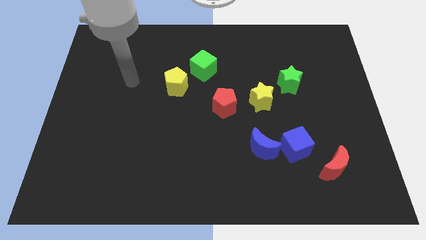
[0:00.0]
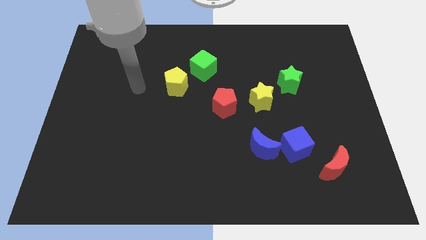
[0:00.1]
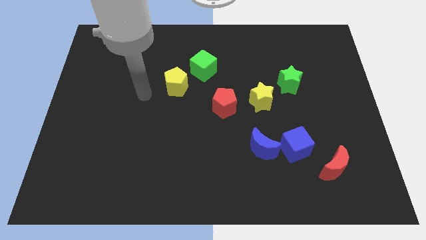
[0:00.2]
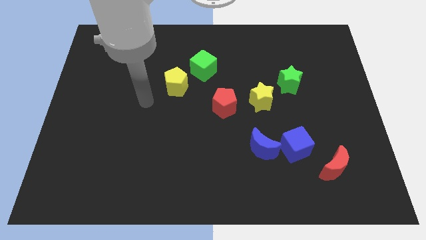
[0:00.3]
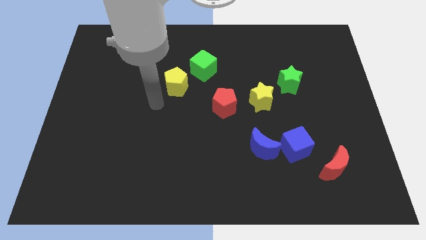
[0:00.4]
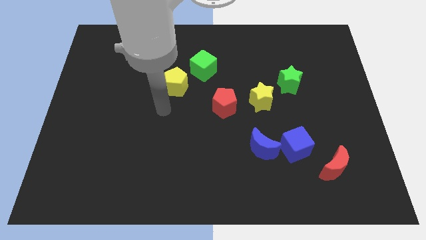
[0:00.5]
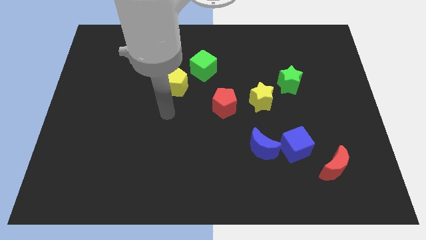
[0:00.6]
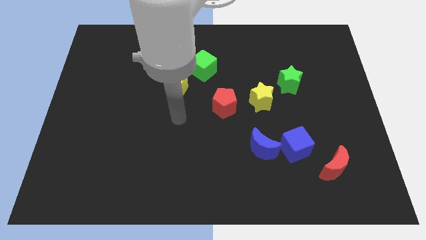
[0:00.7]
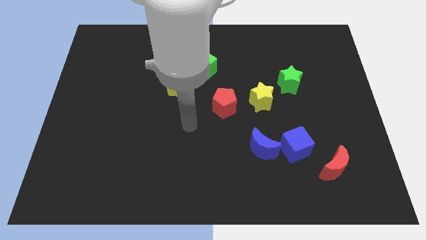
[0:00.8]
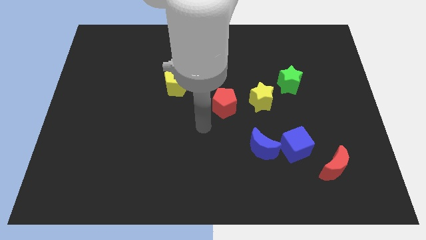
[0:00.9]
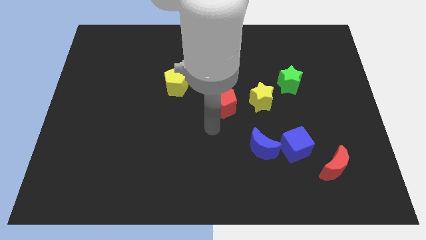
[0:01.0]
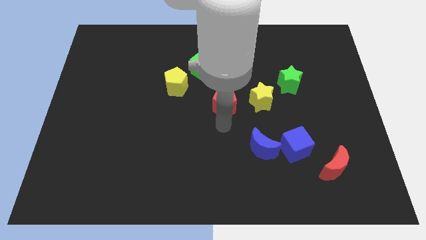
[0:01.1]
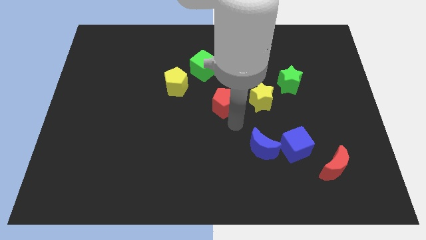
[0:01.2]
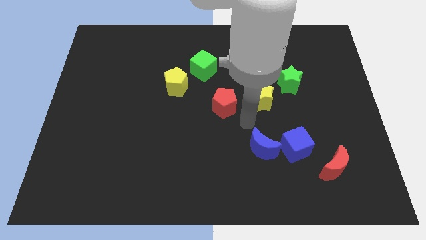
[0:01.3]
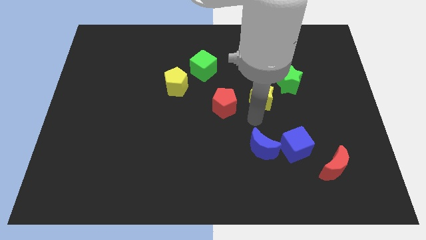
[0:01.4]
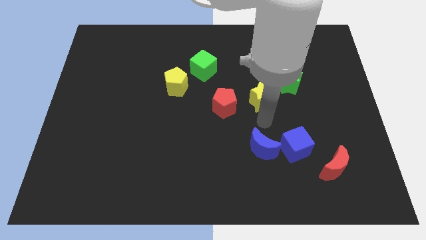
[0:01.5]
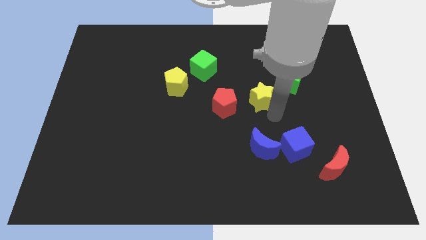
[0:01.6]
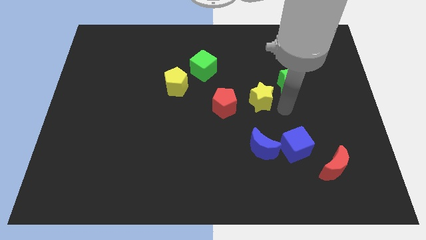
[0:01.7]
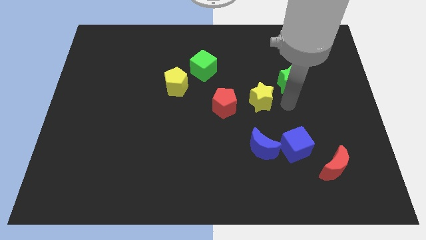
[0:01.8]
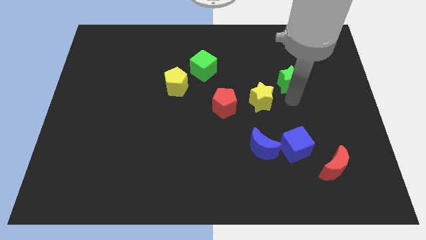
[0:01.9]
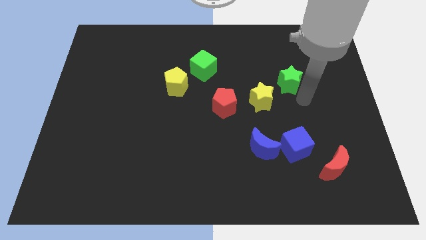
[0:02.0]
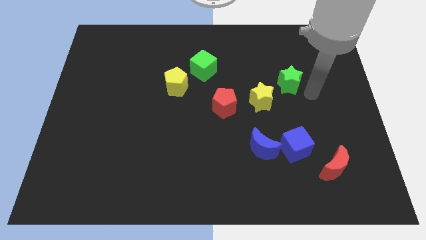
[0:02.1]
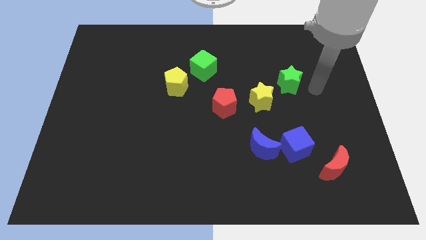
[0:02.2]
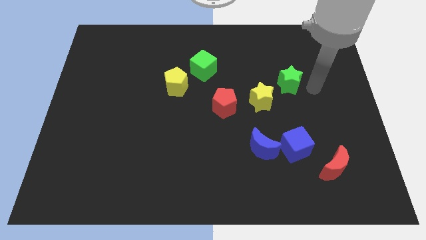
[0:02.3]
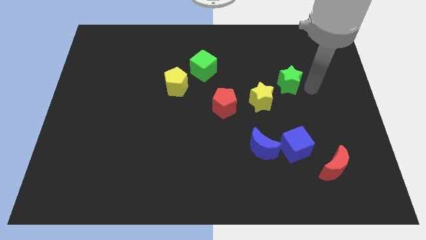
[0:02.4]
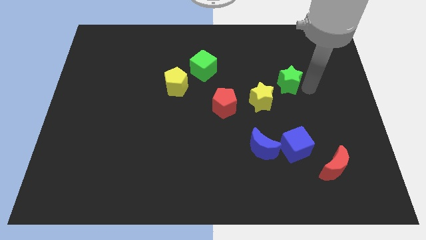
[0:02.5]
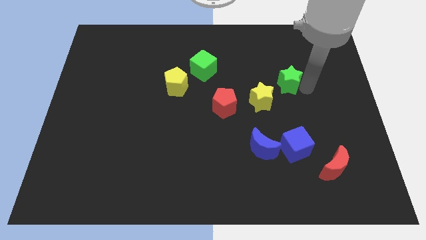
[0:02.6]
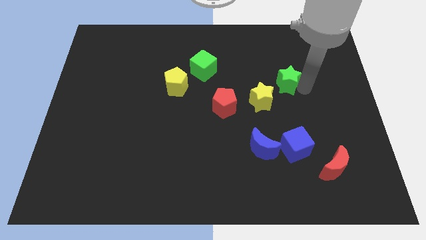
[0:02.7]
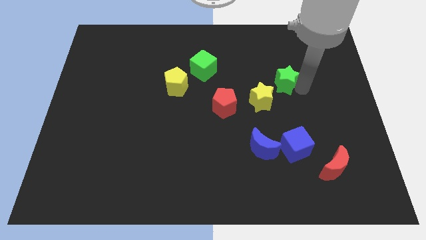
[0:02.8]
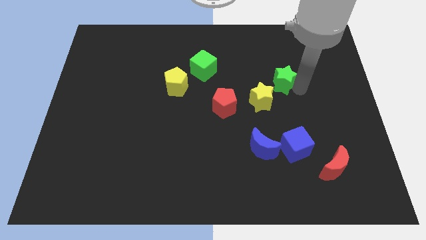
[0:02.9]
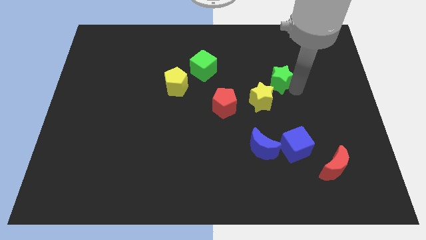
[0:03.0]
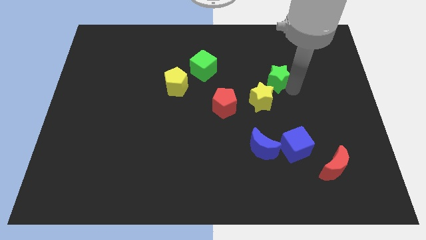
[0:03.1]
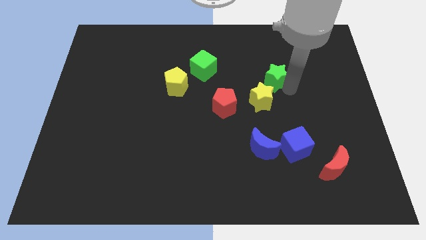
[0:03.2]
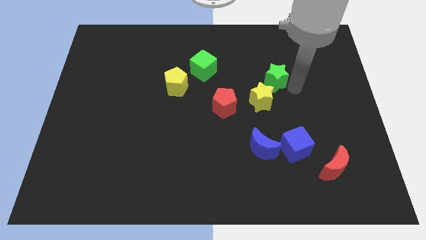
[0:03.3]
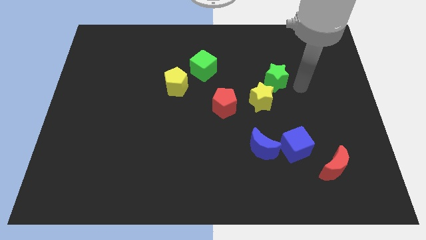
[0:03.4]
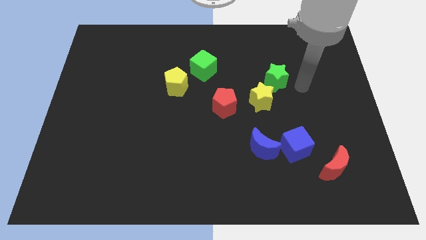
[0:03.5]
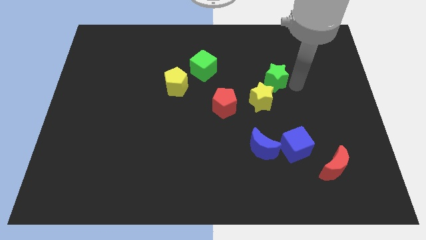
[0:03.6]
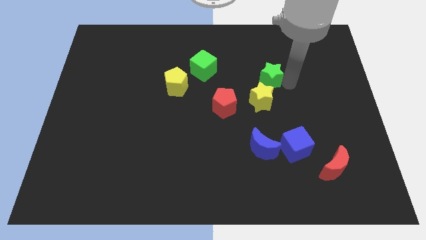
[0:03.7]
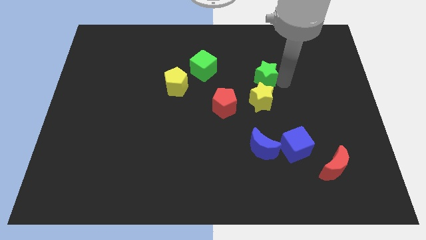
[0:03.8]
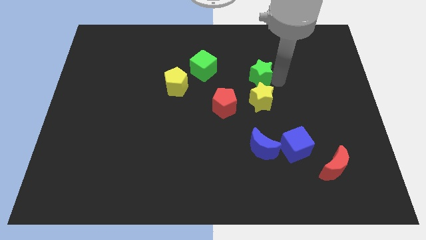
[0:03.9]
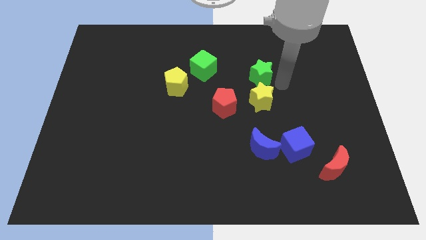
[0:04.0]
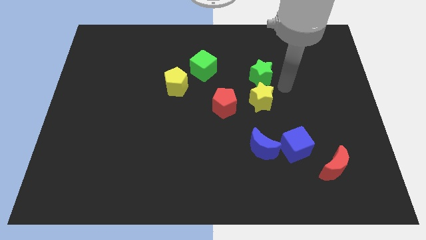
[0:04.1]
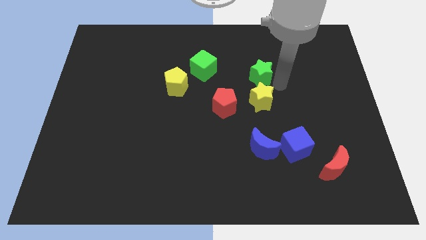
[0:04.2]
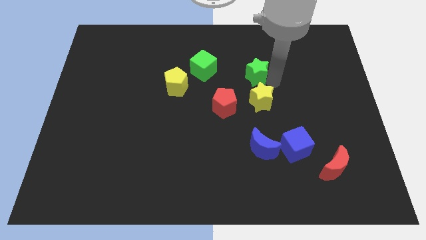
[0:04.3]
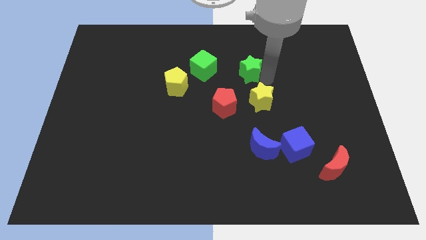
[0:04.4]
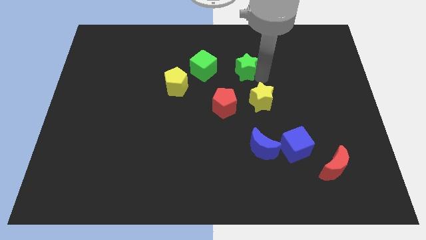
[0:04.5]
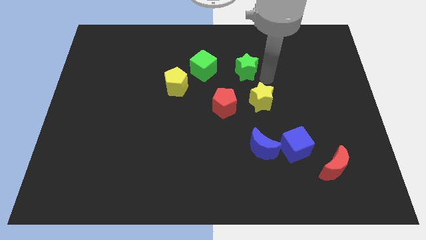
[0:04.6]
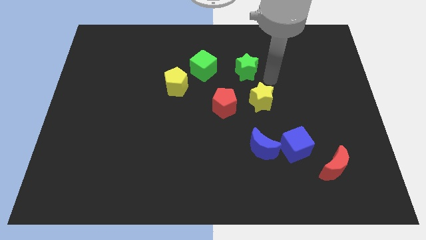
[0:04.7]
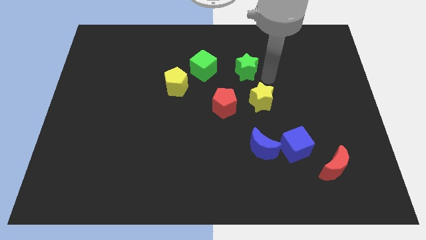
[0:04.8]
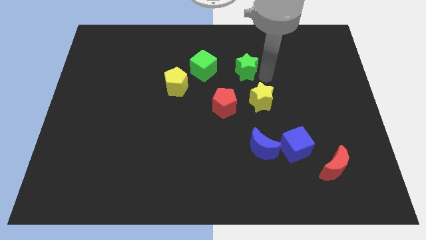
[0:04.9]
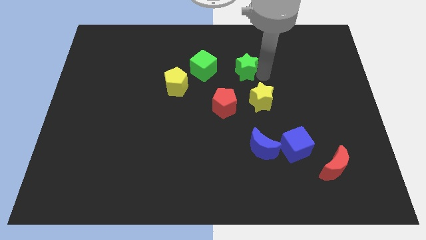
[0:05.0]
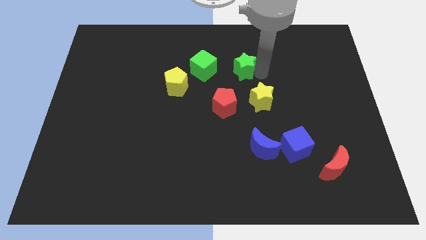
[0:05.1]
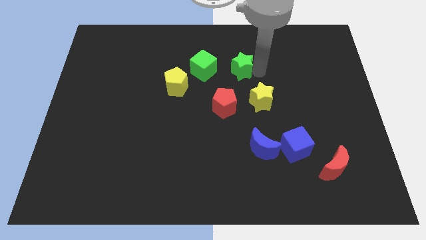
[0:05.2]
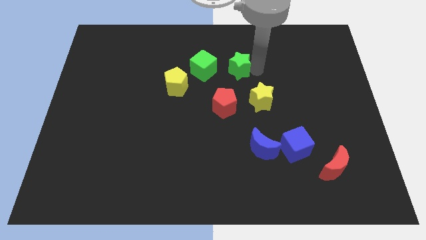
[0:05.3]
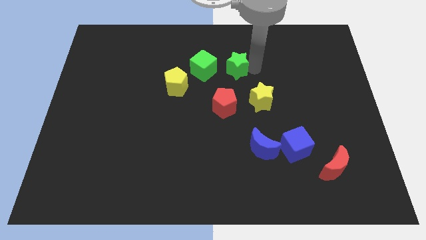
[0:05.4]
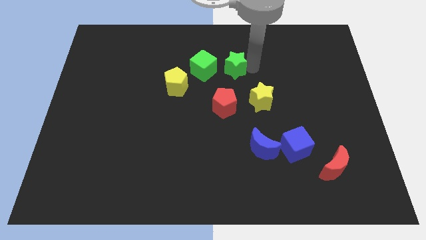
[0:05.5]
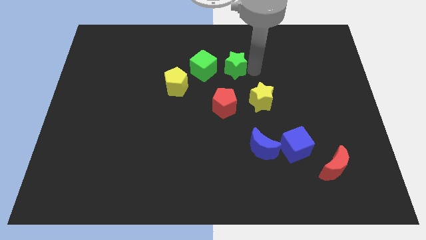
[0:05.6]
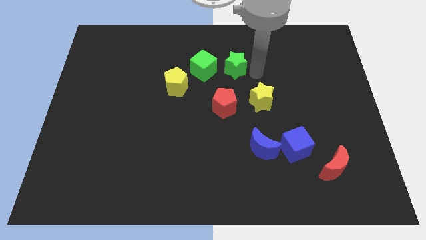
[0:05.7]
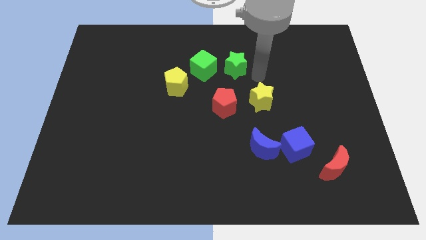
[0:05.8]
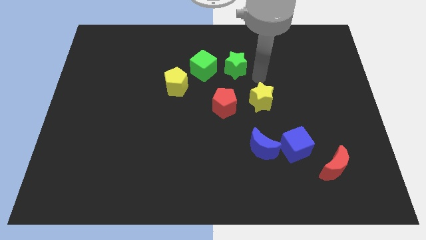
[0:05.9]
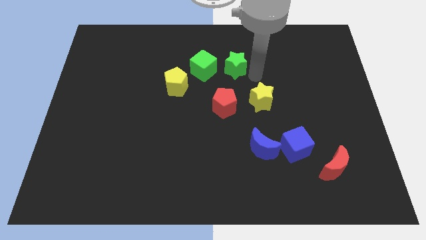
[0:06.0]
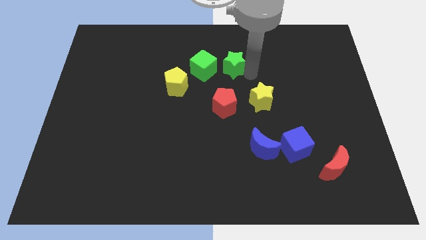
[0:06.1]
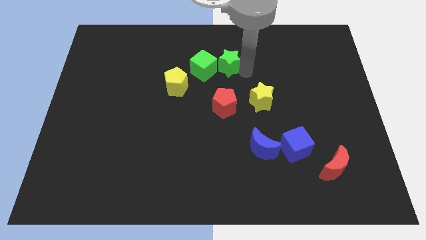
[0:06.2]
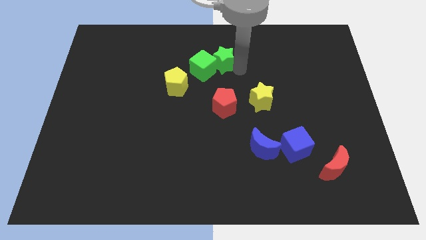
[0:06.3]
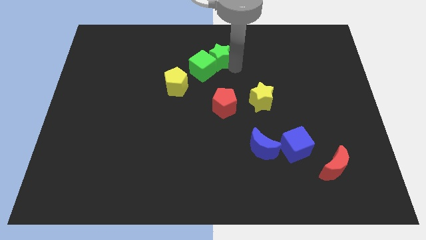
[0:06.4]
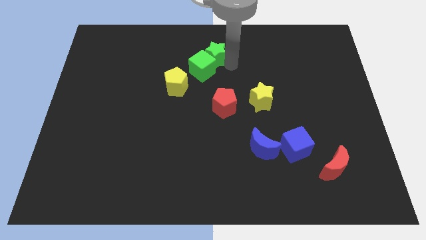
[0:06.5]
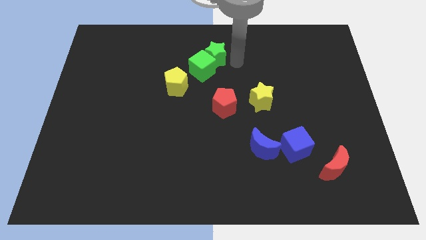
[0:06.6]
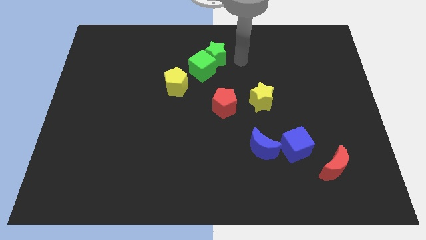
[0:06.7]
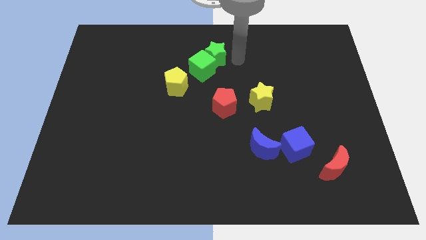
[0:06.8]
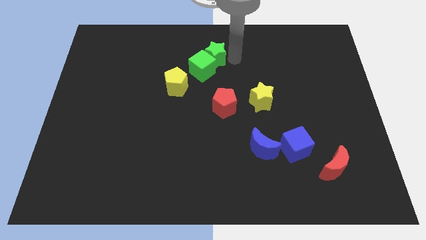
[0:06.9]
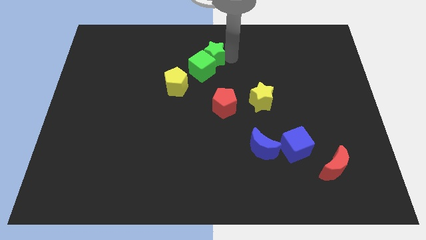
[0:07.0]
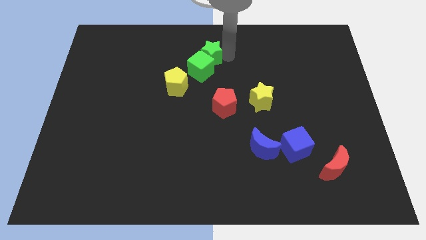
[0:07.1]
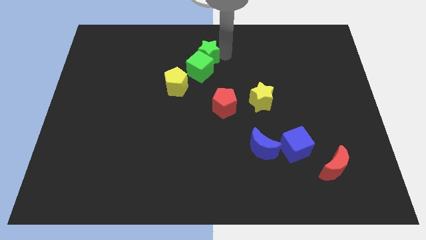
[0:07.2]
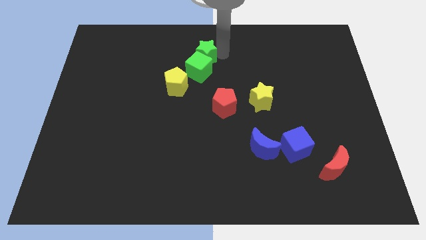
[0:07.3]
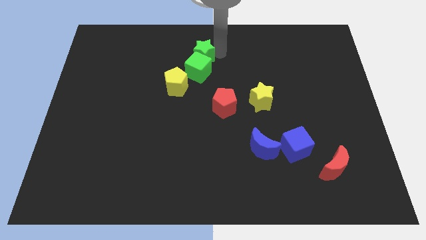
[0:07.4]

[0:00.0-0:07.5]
put the green star to the top left side of the green cube
